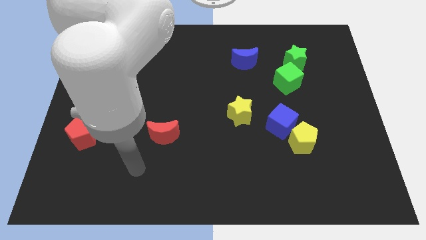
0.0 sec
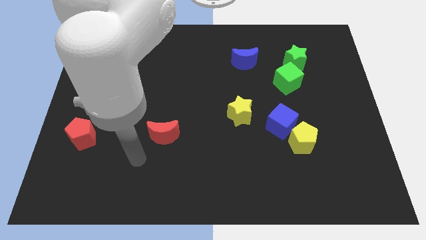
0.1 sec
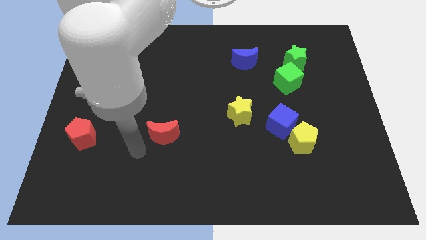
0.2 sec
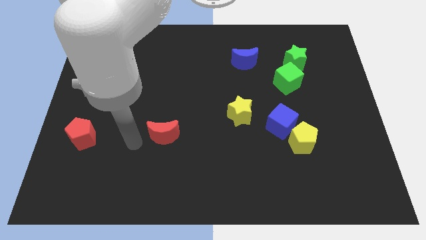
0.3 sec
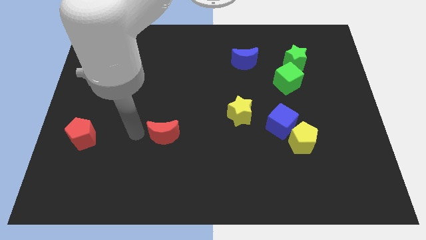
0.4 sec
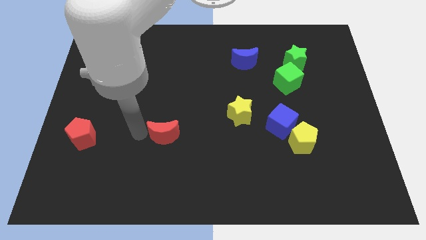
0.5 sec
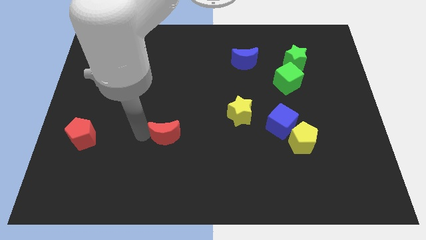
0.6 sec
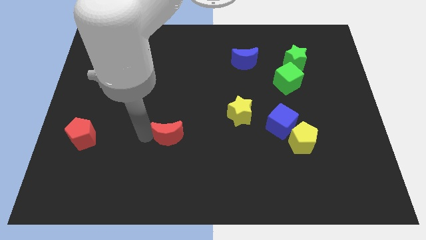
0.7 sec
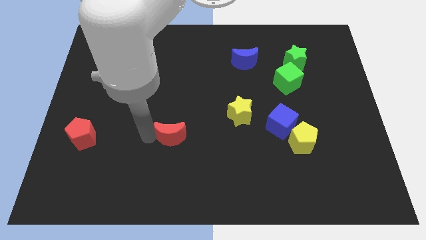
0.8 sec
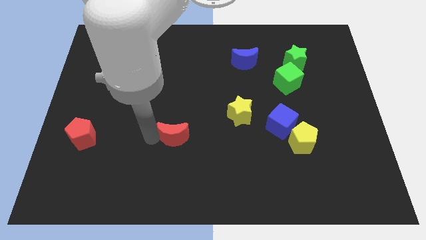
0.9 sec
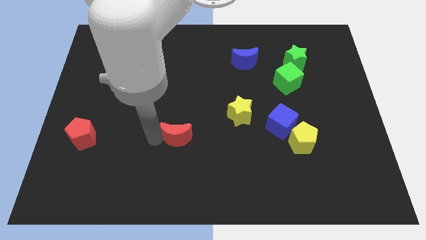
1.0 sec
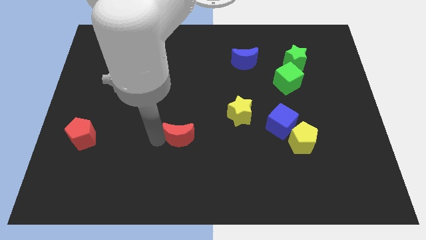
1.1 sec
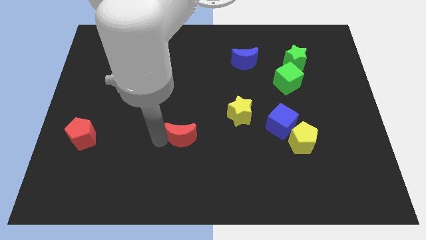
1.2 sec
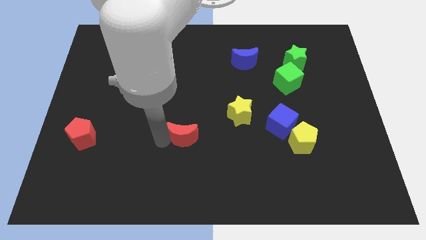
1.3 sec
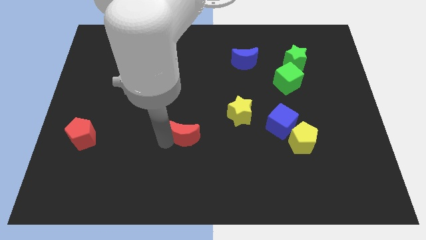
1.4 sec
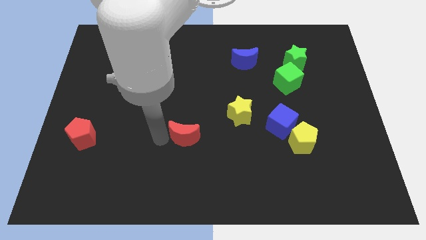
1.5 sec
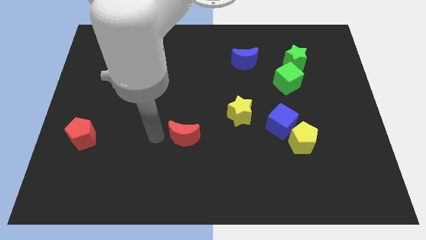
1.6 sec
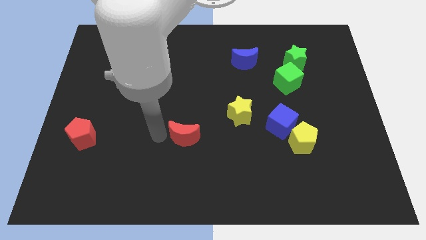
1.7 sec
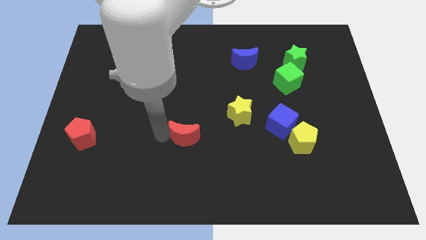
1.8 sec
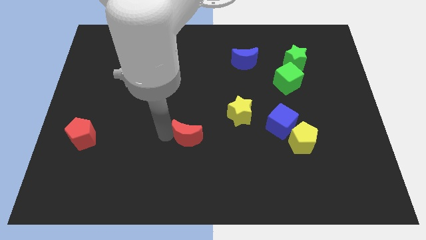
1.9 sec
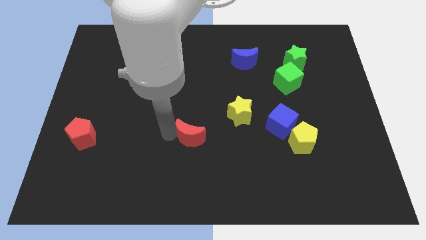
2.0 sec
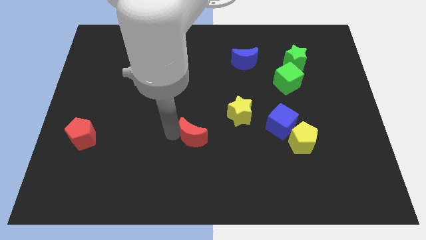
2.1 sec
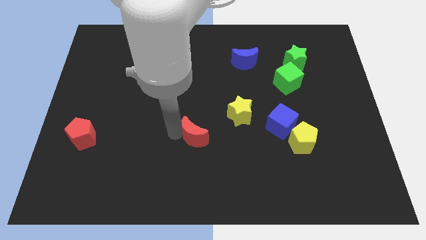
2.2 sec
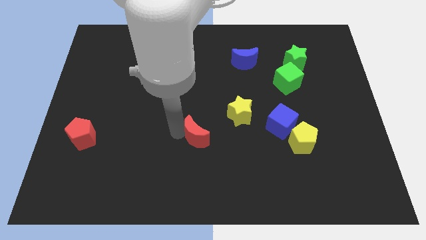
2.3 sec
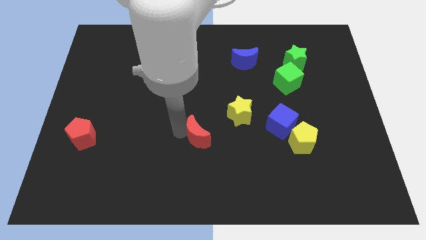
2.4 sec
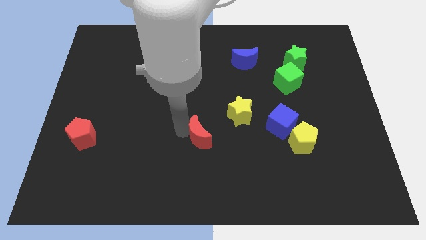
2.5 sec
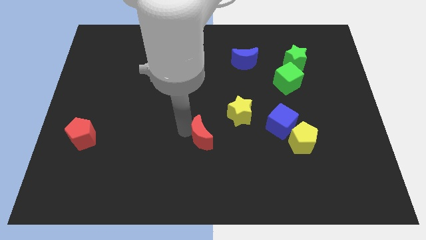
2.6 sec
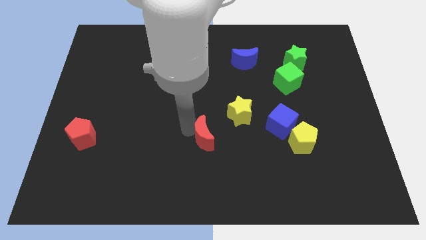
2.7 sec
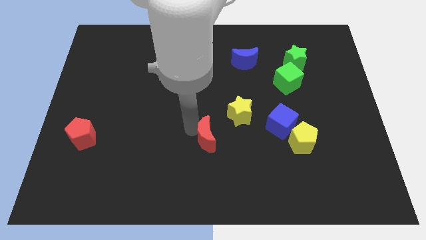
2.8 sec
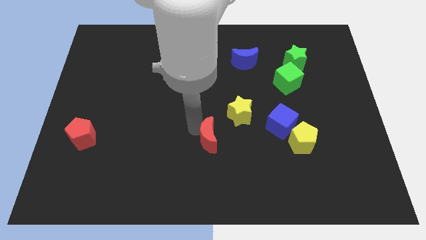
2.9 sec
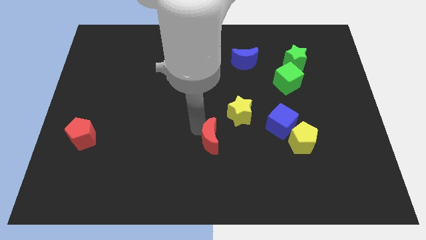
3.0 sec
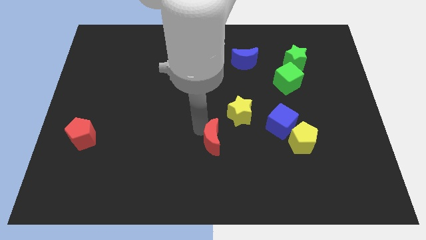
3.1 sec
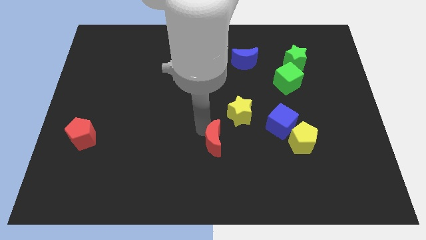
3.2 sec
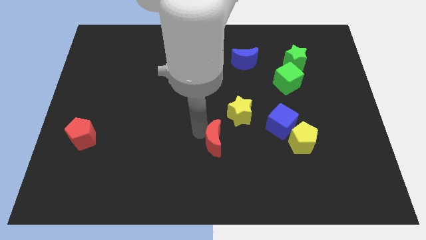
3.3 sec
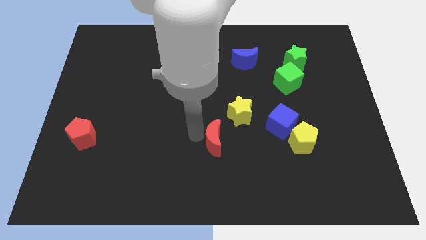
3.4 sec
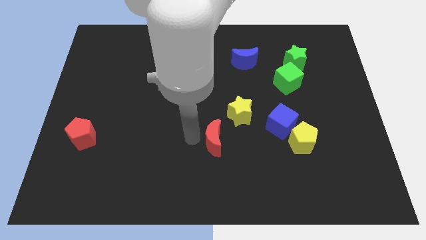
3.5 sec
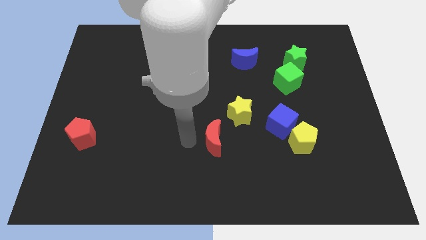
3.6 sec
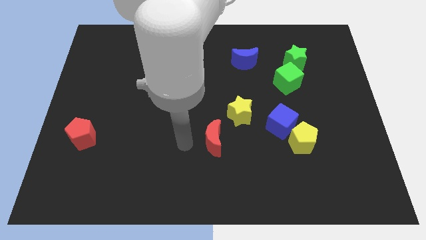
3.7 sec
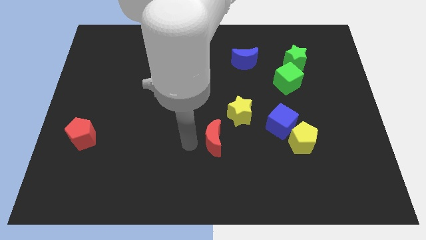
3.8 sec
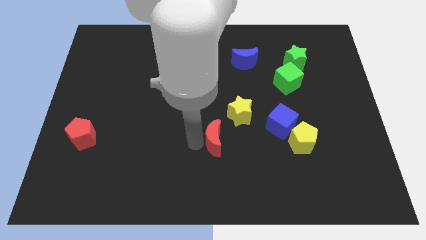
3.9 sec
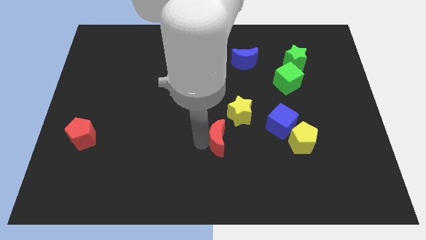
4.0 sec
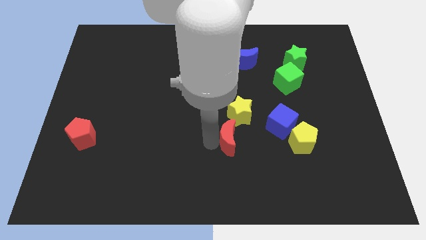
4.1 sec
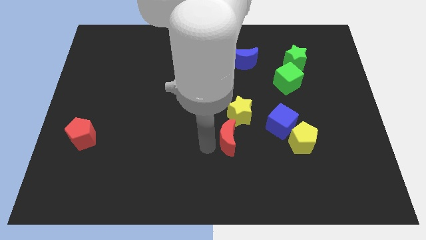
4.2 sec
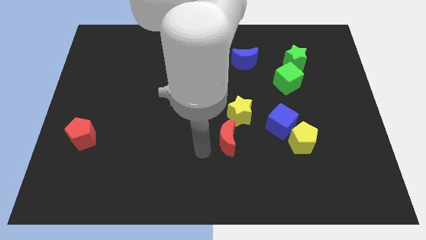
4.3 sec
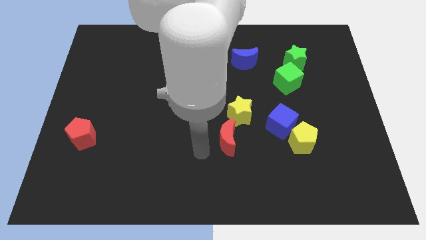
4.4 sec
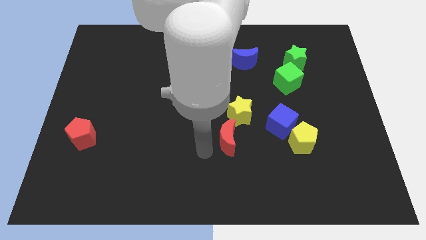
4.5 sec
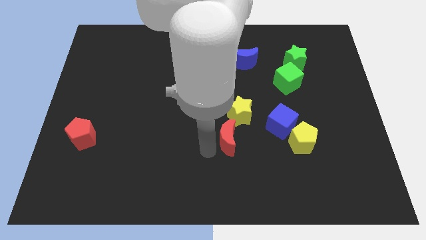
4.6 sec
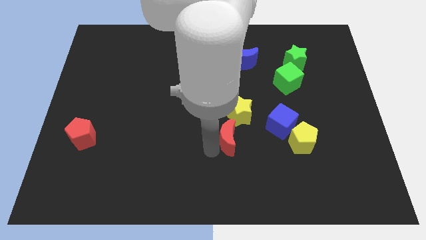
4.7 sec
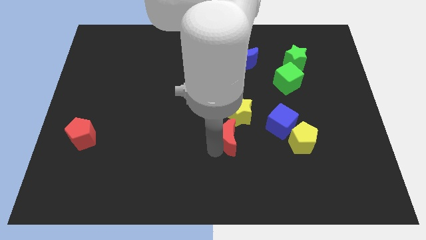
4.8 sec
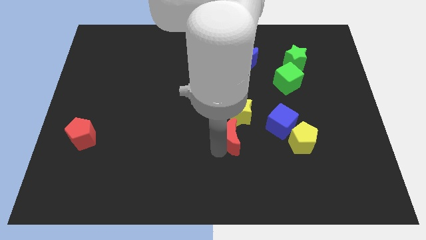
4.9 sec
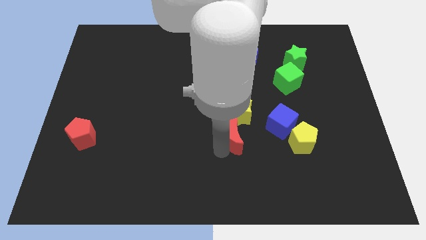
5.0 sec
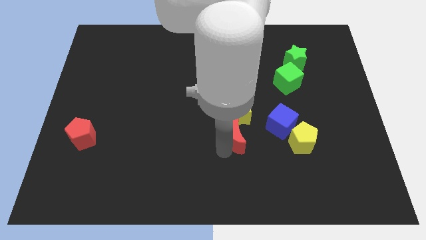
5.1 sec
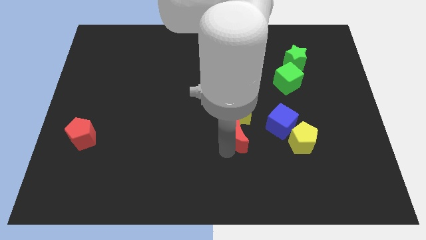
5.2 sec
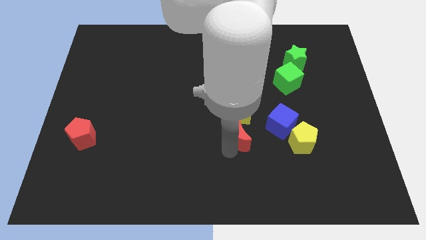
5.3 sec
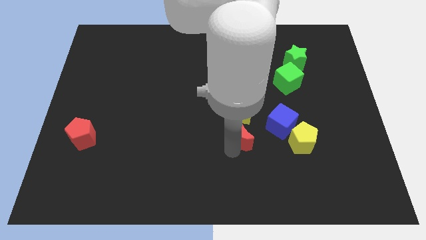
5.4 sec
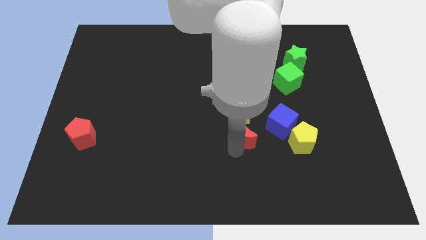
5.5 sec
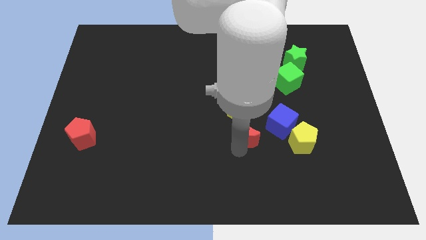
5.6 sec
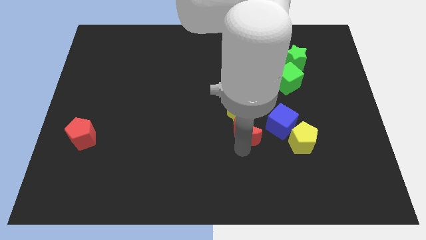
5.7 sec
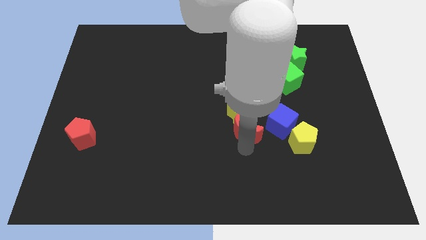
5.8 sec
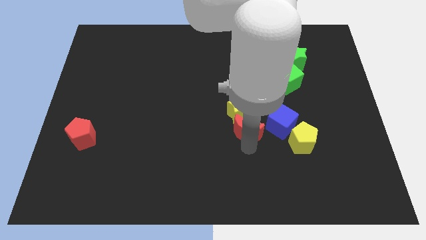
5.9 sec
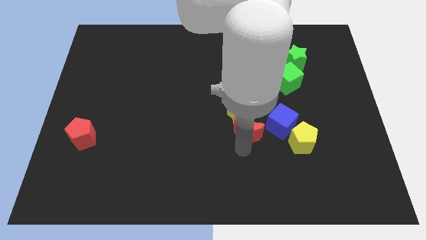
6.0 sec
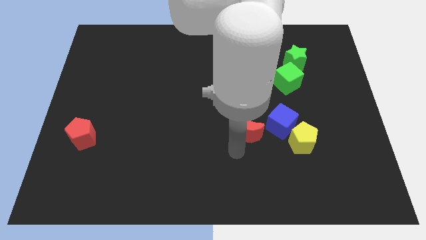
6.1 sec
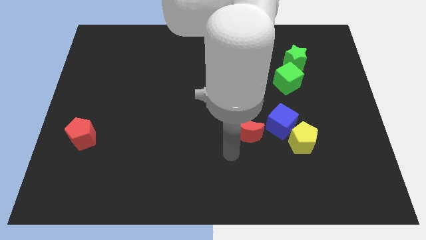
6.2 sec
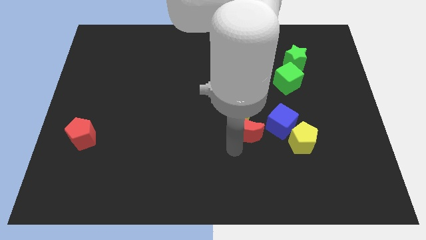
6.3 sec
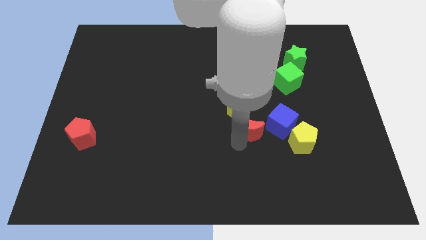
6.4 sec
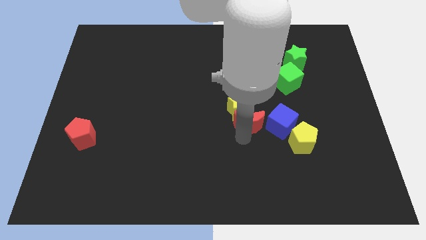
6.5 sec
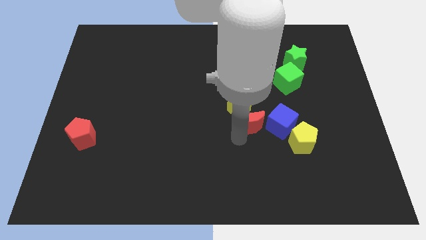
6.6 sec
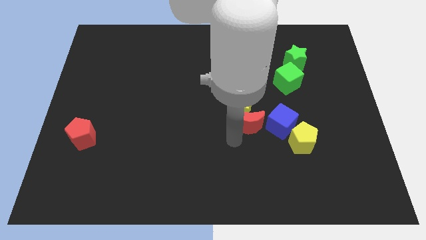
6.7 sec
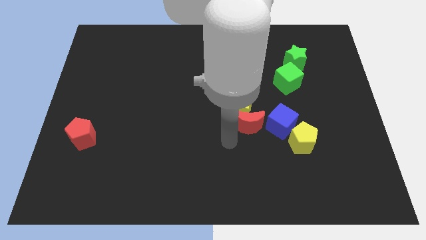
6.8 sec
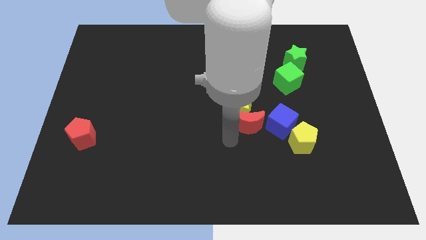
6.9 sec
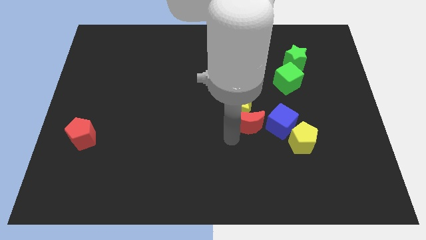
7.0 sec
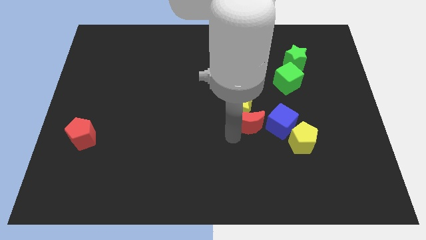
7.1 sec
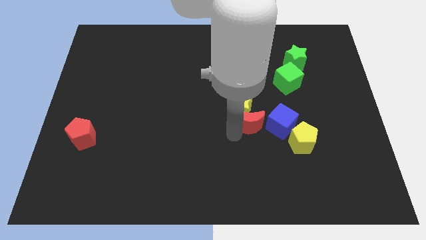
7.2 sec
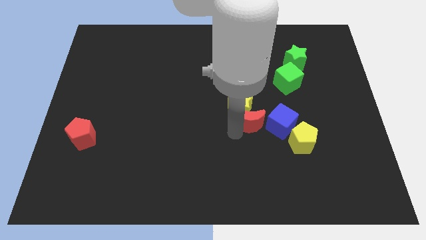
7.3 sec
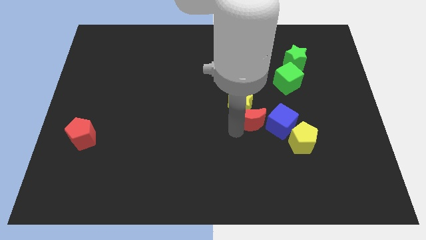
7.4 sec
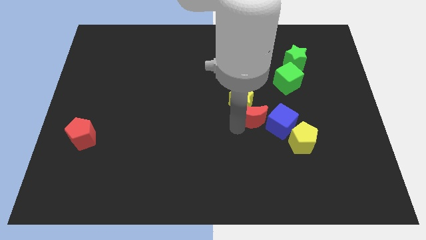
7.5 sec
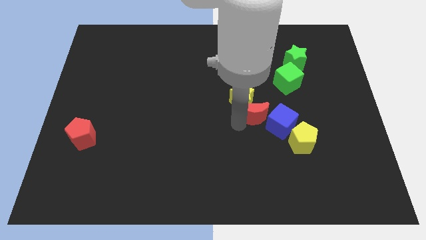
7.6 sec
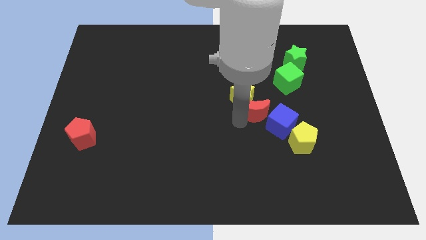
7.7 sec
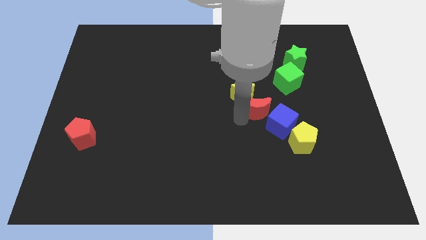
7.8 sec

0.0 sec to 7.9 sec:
put the red moon diagonally down and to the left of the green cube

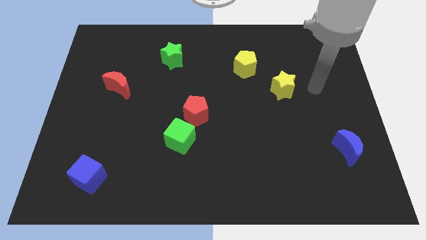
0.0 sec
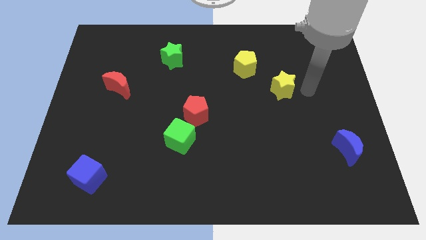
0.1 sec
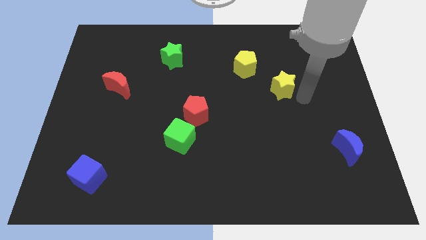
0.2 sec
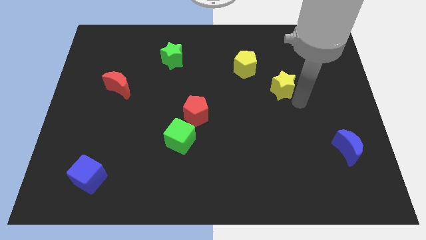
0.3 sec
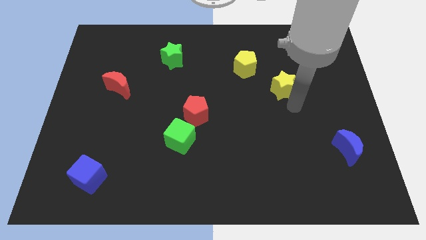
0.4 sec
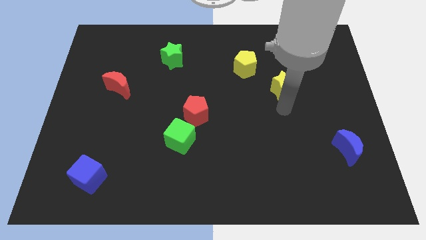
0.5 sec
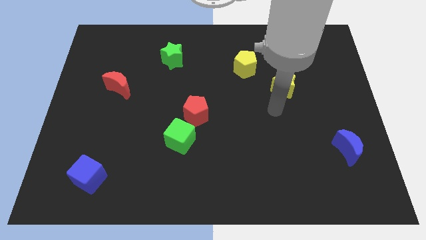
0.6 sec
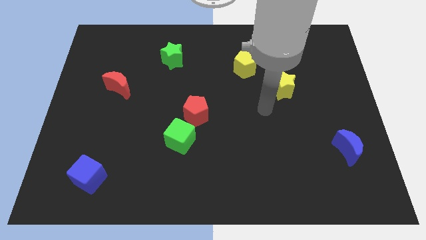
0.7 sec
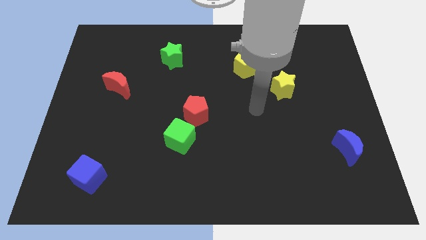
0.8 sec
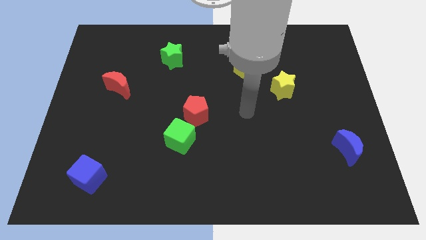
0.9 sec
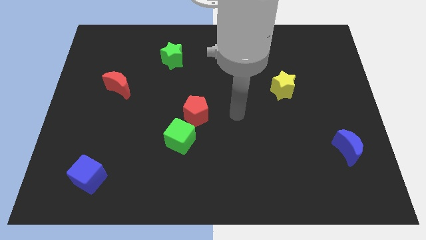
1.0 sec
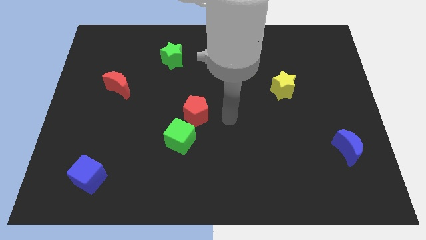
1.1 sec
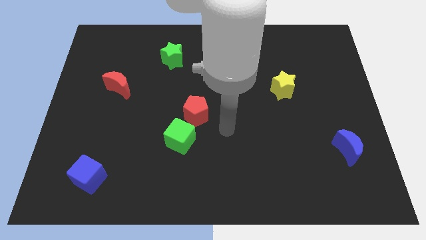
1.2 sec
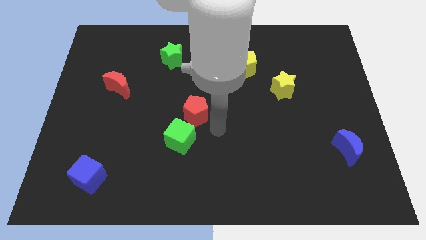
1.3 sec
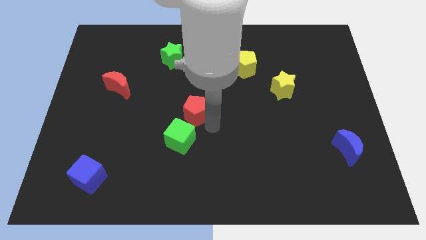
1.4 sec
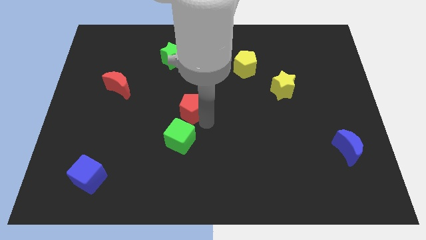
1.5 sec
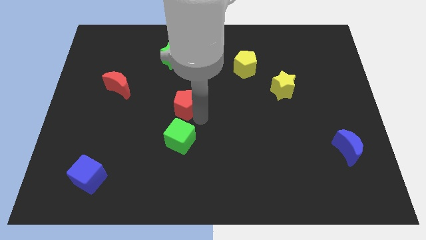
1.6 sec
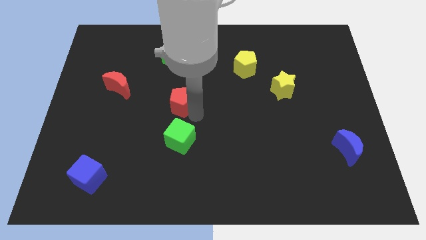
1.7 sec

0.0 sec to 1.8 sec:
put the red pentagon below the green star
